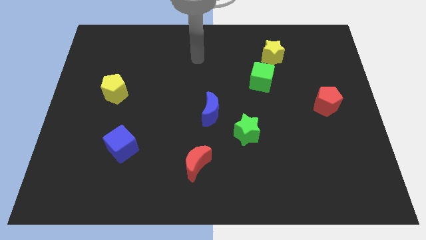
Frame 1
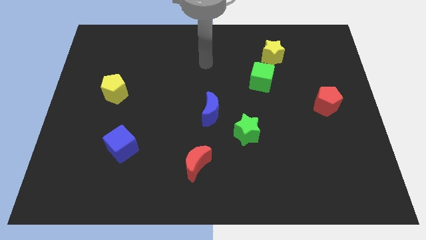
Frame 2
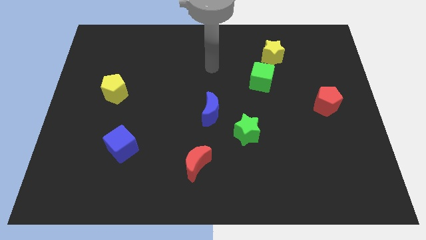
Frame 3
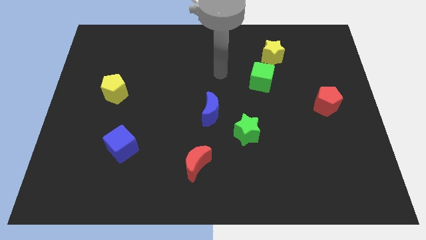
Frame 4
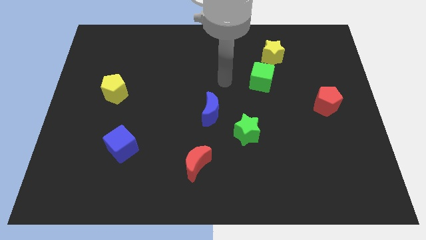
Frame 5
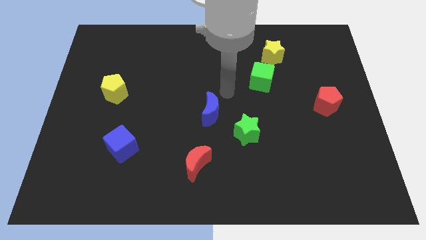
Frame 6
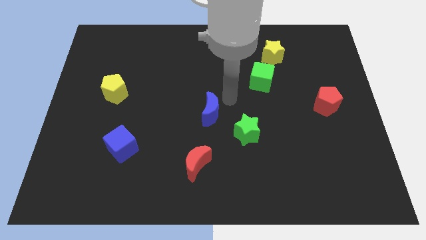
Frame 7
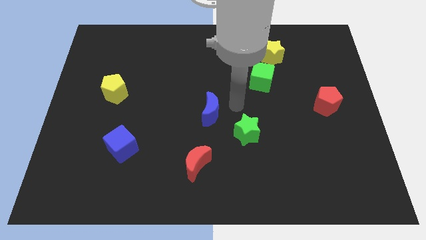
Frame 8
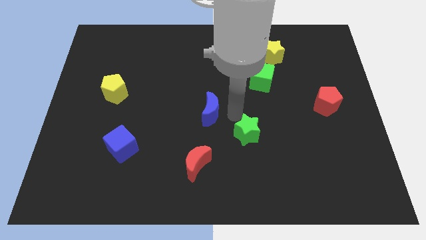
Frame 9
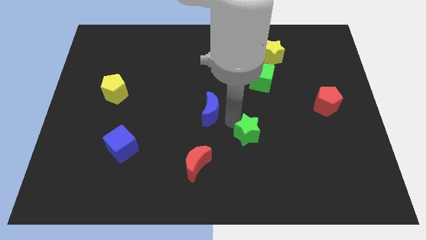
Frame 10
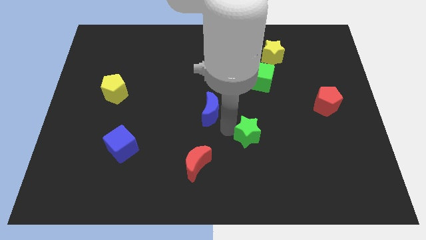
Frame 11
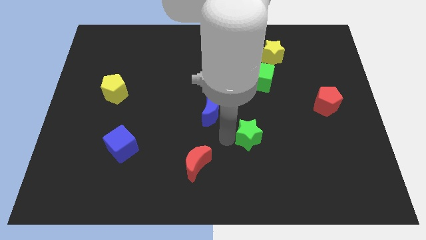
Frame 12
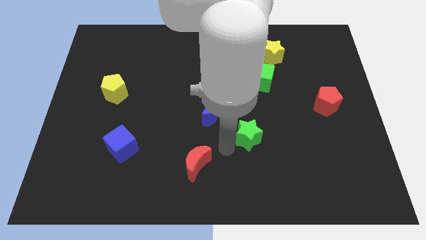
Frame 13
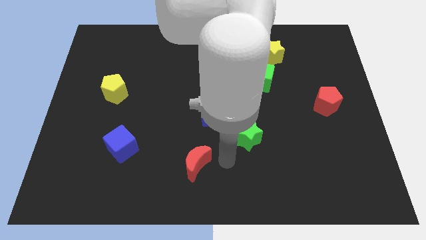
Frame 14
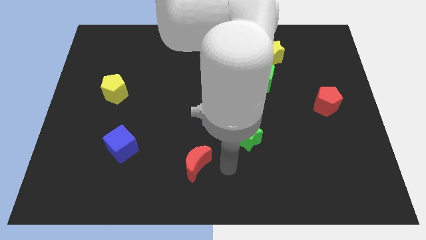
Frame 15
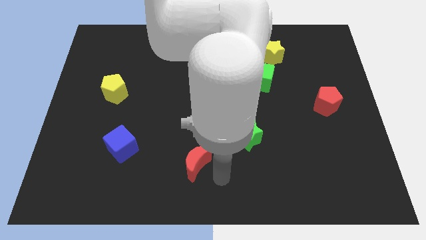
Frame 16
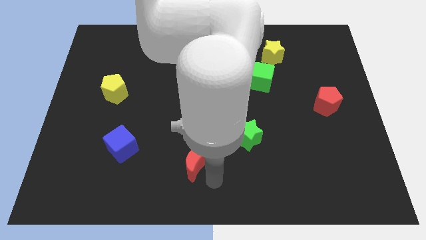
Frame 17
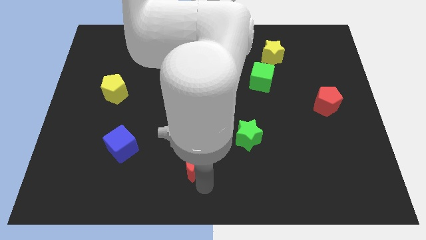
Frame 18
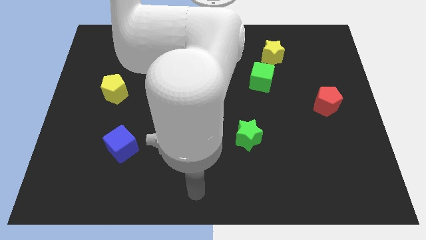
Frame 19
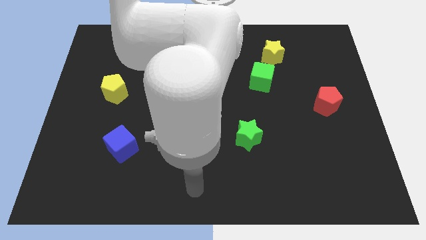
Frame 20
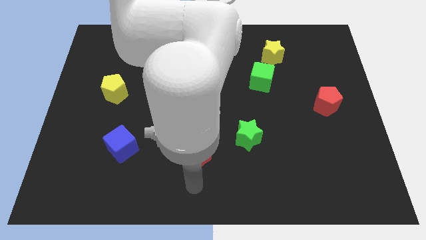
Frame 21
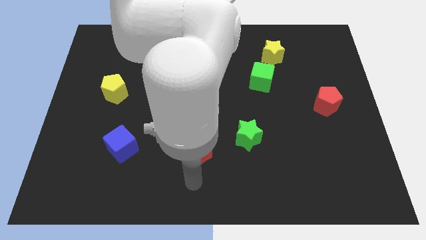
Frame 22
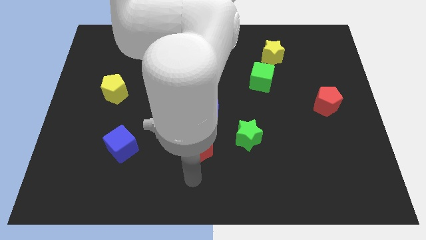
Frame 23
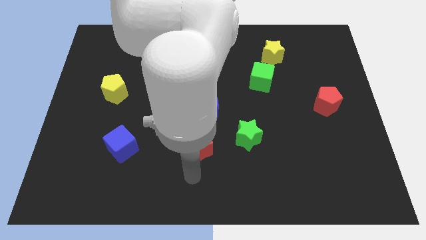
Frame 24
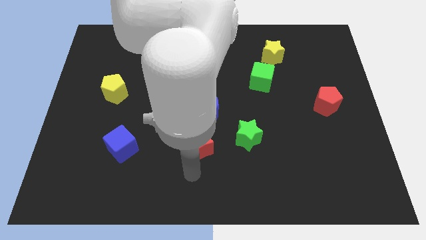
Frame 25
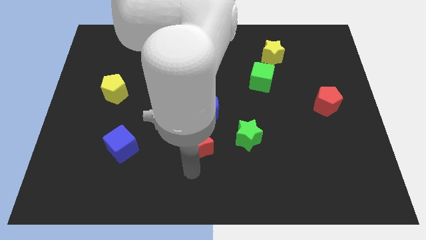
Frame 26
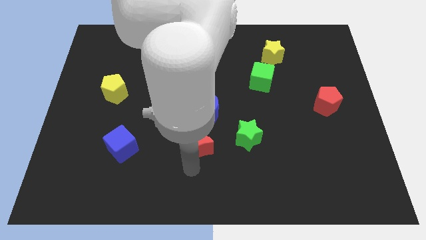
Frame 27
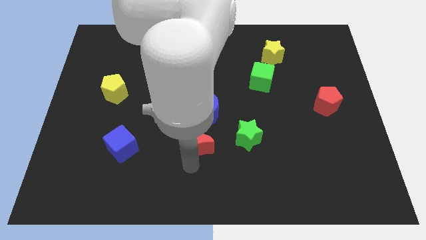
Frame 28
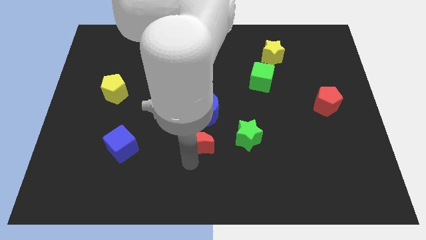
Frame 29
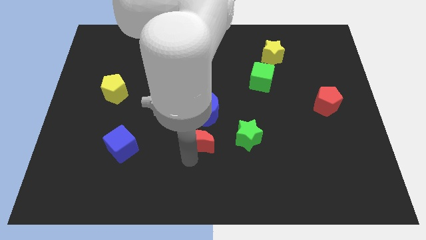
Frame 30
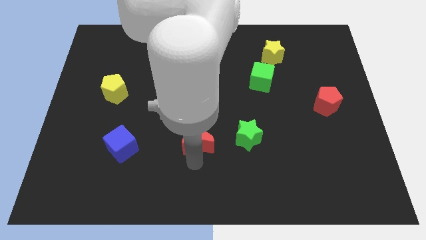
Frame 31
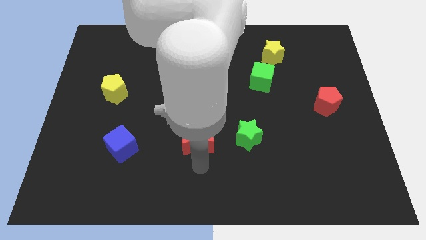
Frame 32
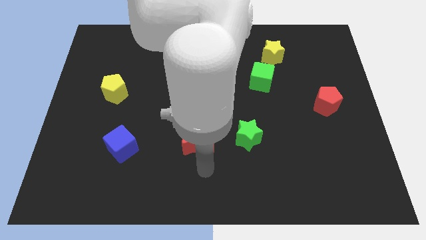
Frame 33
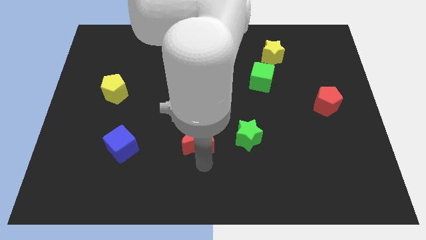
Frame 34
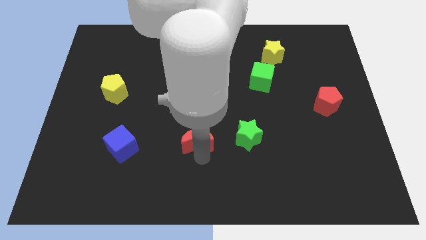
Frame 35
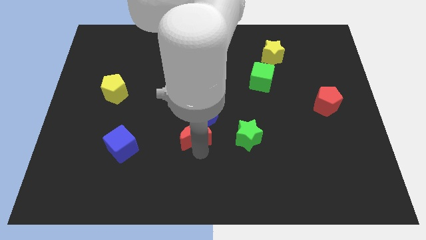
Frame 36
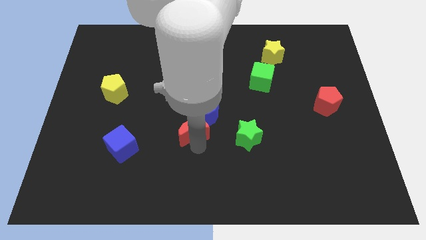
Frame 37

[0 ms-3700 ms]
slide the red moon somewhat up

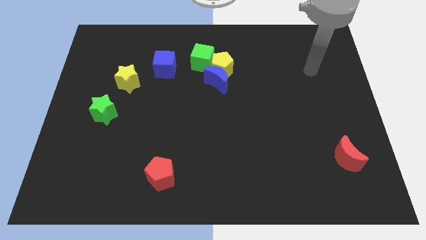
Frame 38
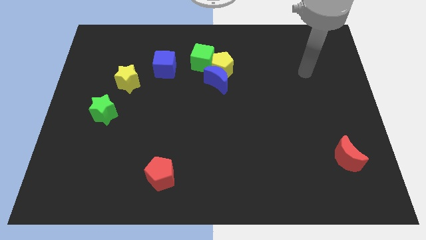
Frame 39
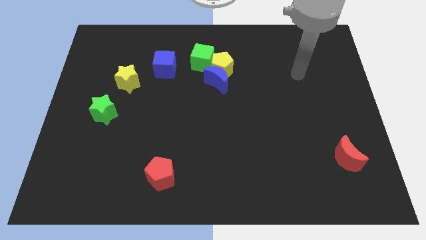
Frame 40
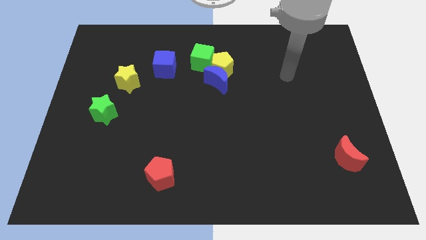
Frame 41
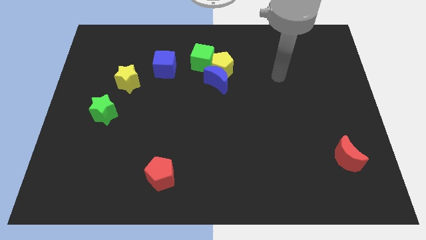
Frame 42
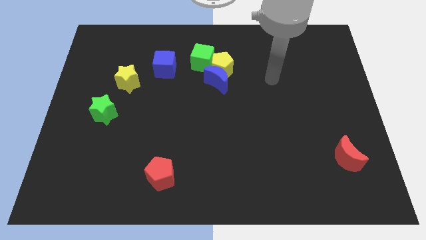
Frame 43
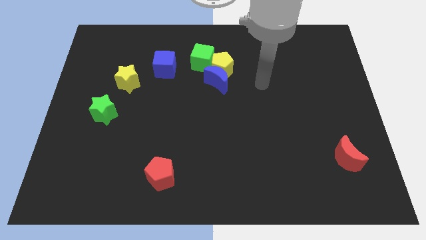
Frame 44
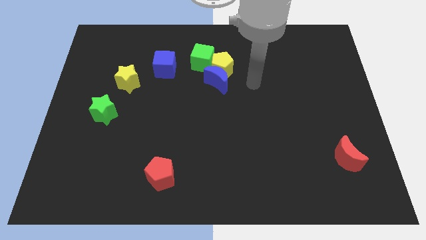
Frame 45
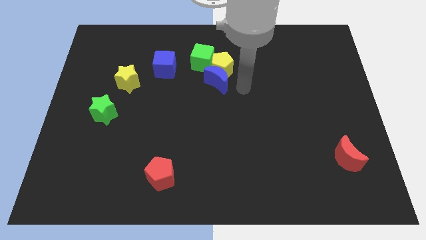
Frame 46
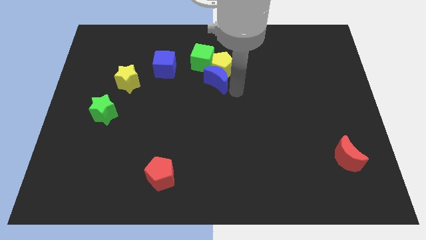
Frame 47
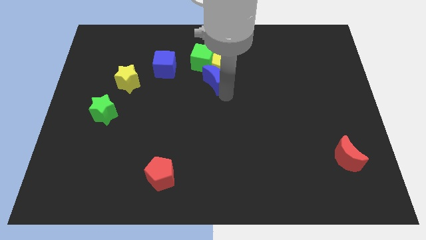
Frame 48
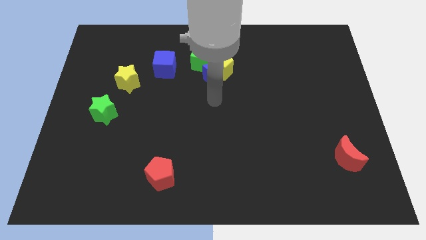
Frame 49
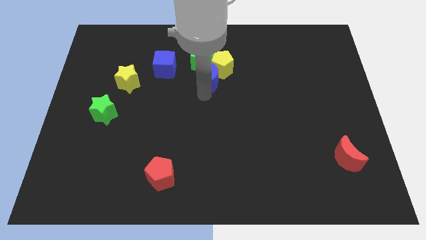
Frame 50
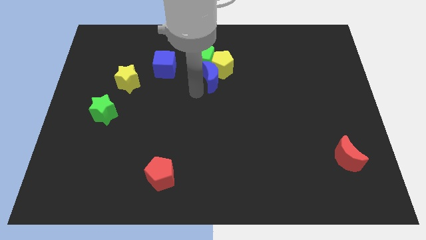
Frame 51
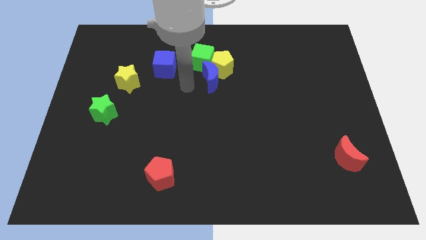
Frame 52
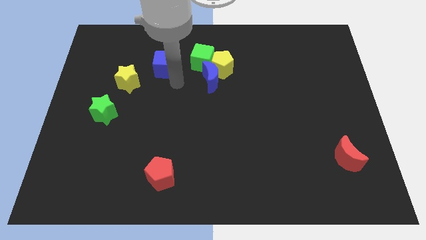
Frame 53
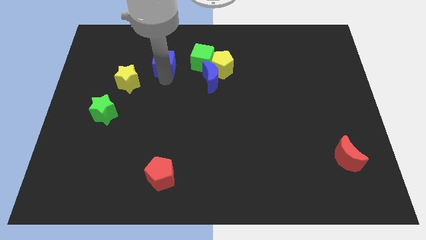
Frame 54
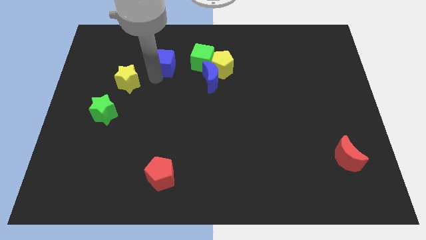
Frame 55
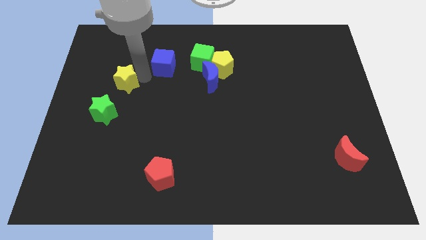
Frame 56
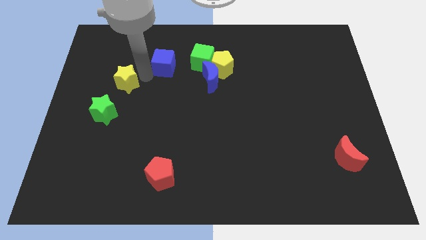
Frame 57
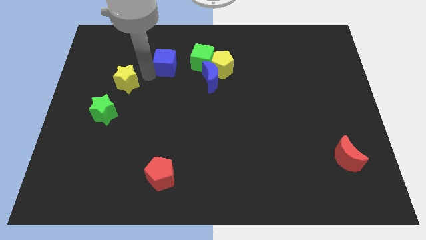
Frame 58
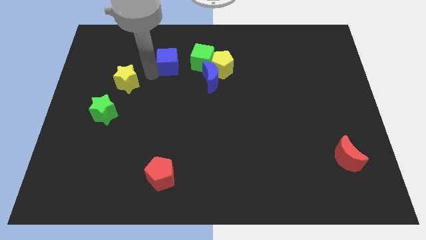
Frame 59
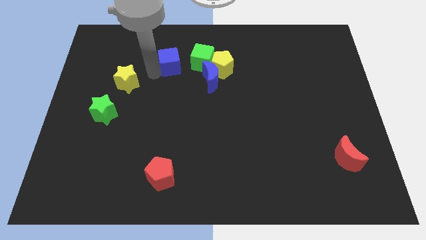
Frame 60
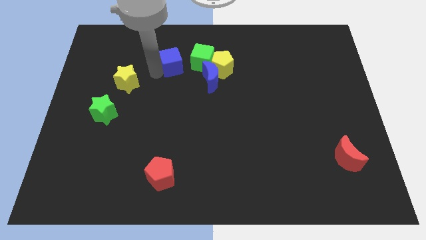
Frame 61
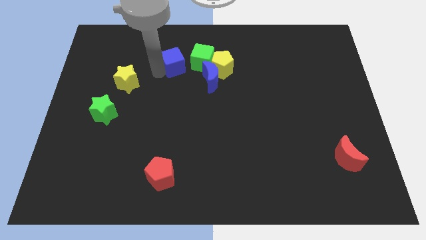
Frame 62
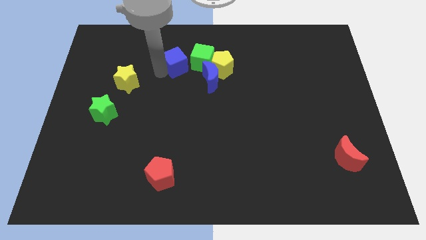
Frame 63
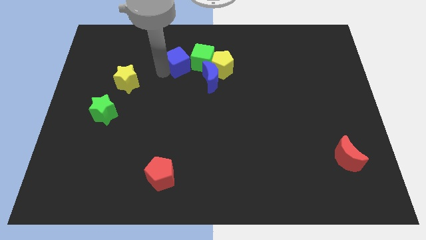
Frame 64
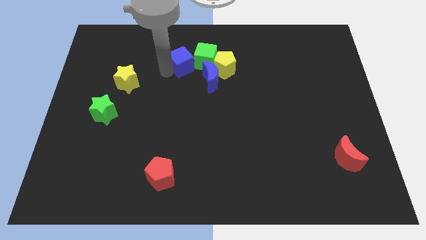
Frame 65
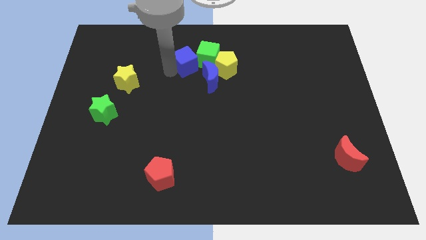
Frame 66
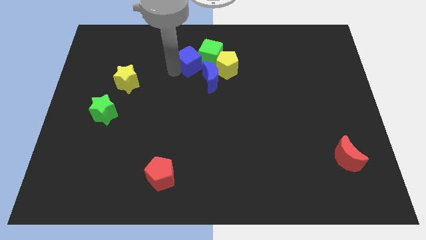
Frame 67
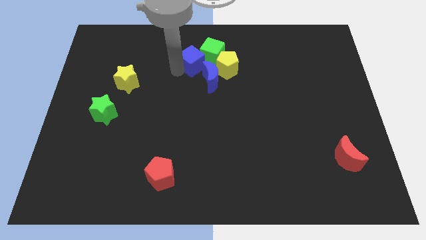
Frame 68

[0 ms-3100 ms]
slightly slide the blue cube to the right

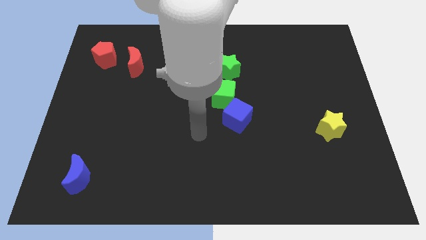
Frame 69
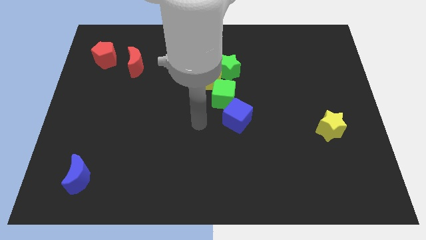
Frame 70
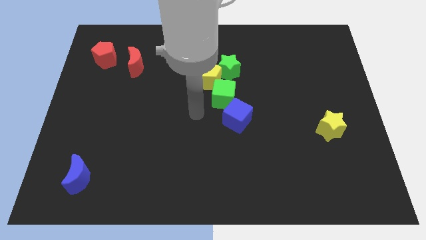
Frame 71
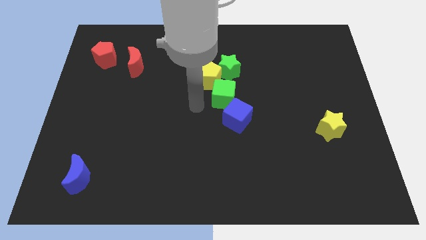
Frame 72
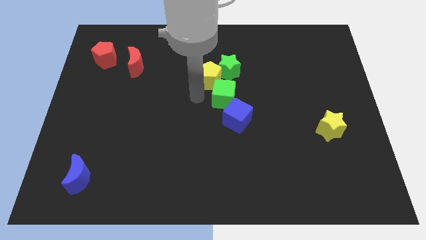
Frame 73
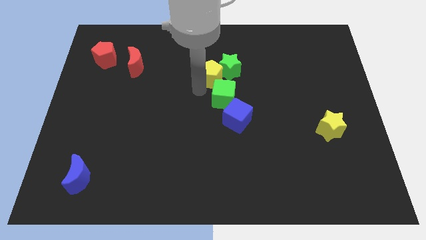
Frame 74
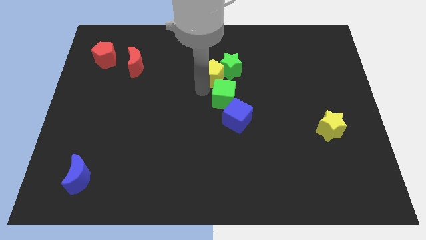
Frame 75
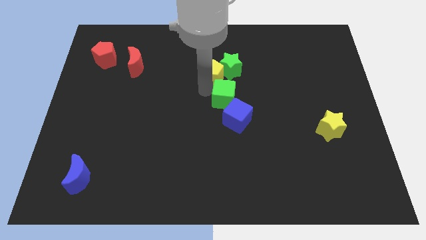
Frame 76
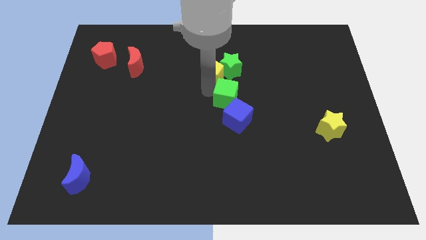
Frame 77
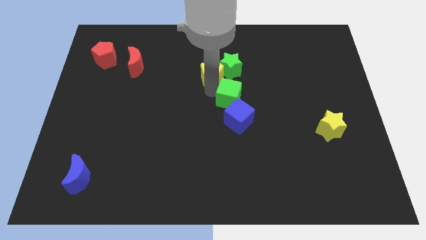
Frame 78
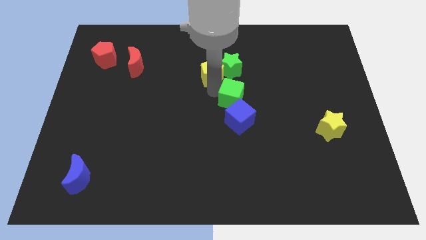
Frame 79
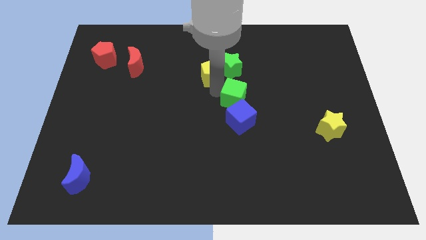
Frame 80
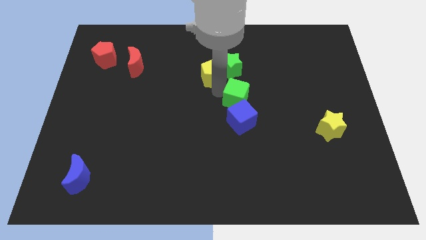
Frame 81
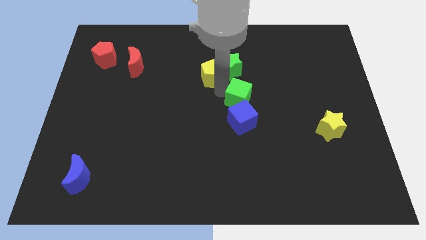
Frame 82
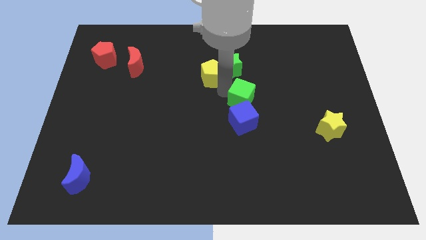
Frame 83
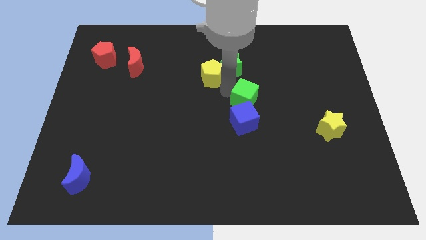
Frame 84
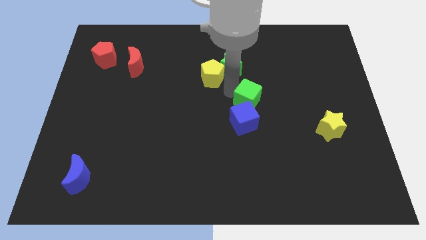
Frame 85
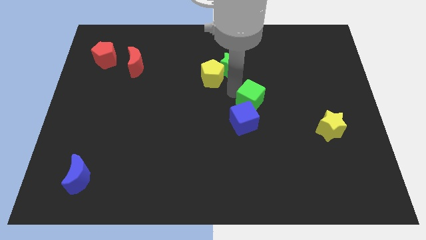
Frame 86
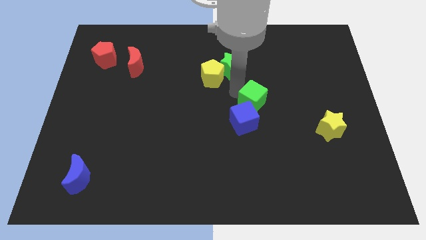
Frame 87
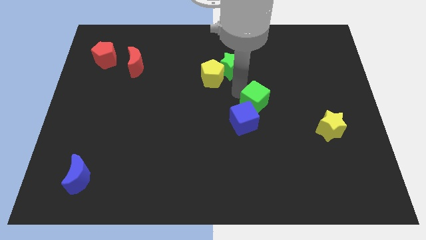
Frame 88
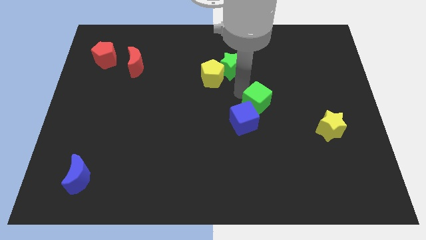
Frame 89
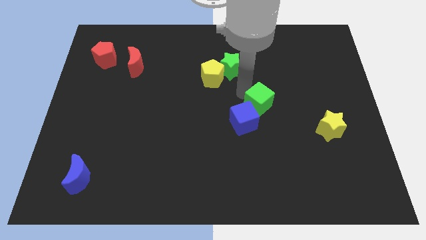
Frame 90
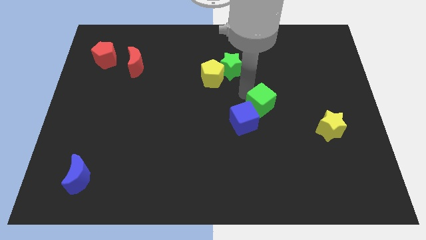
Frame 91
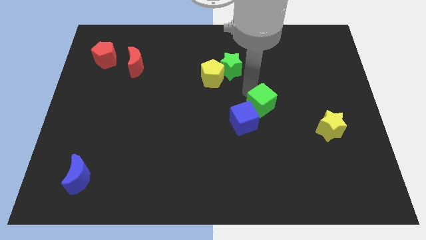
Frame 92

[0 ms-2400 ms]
slightly slide the green cube downwards and right
